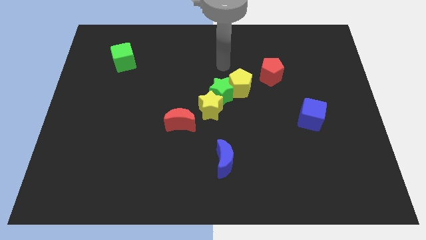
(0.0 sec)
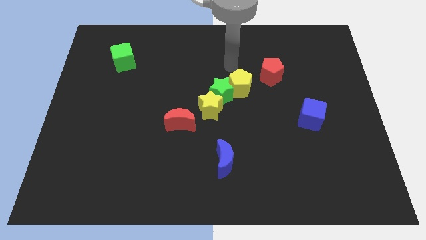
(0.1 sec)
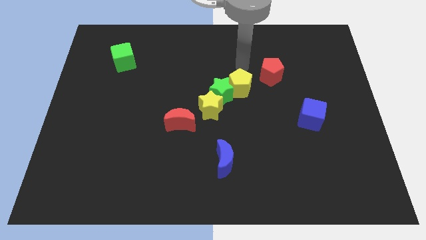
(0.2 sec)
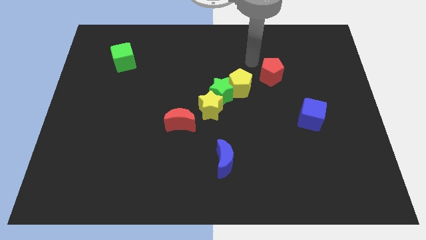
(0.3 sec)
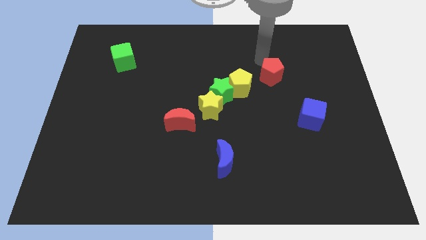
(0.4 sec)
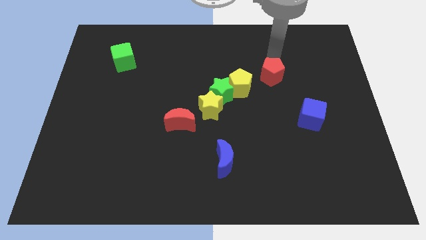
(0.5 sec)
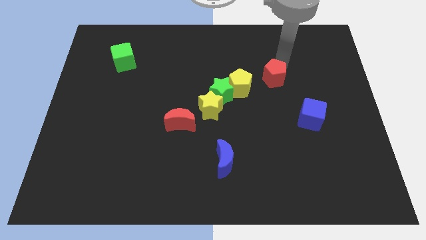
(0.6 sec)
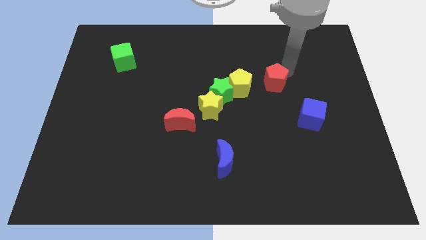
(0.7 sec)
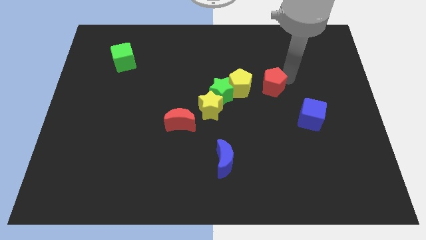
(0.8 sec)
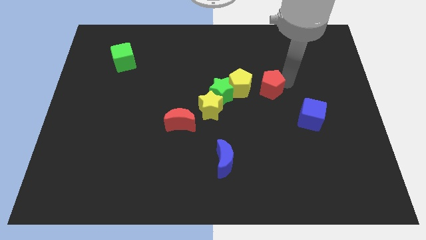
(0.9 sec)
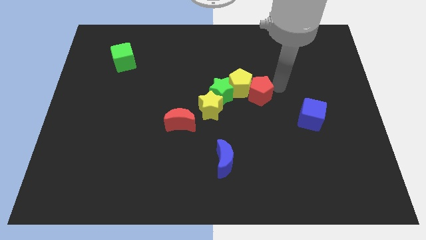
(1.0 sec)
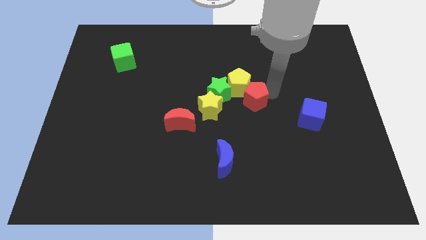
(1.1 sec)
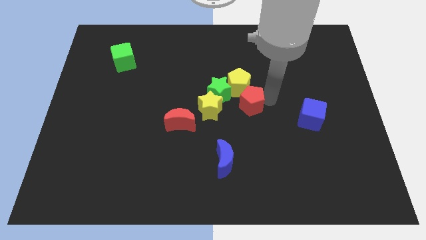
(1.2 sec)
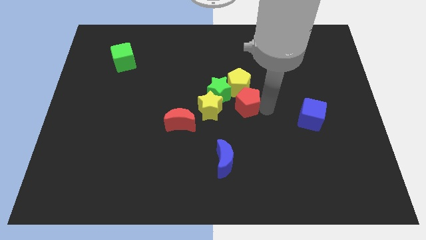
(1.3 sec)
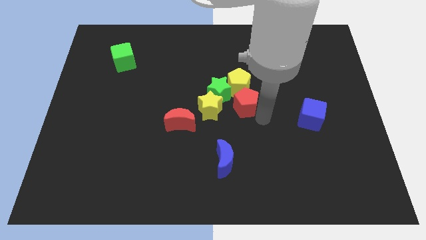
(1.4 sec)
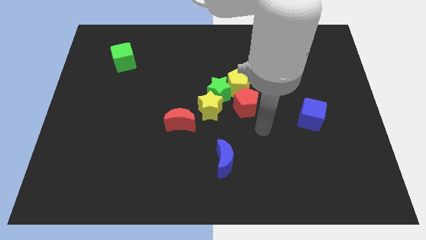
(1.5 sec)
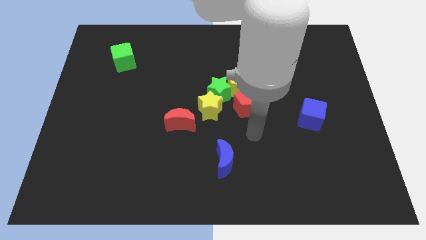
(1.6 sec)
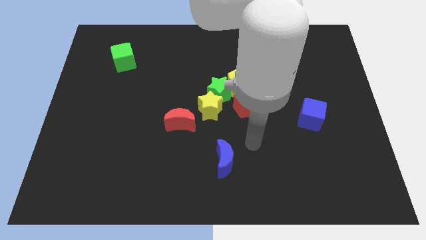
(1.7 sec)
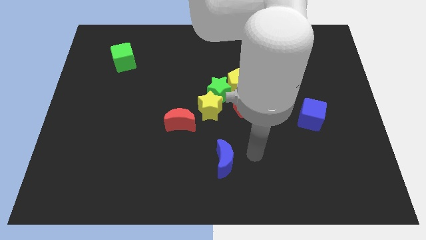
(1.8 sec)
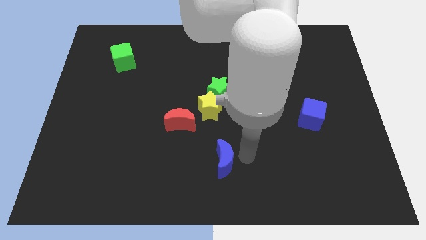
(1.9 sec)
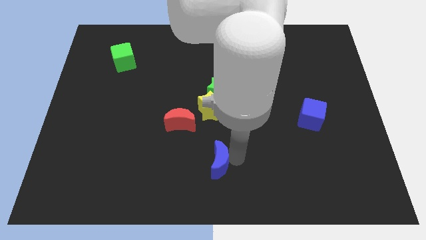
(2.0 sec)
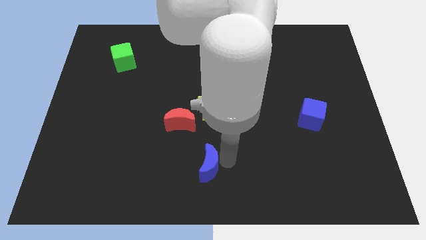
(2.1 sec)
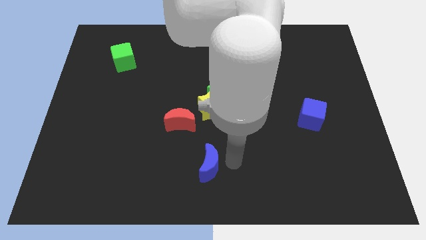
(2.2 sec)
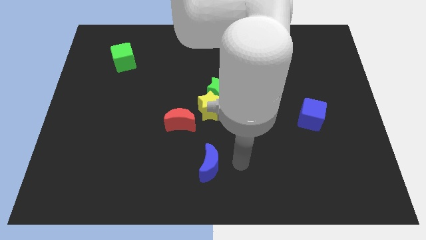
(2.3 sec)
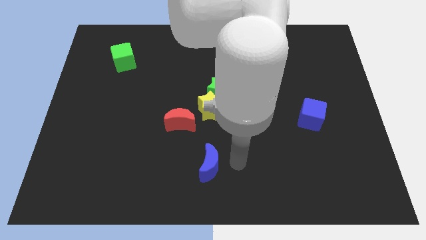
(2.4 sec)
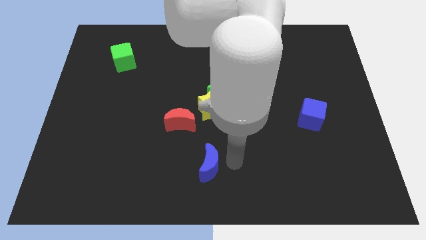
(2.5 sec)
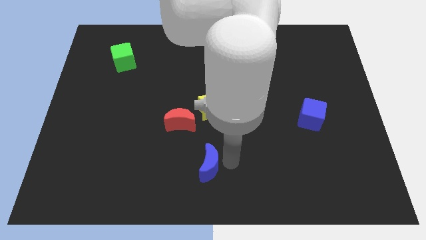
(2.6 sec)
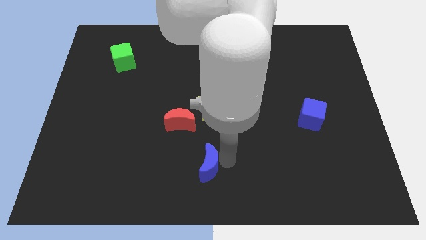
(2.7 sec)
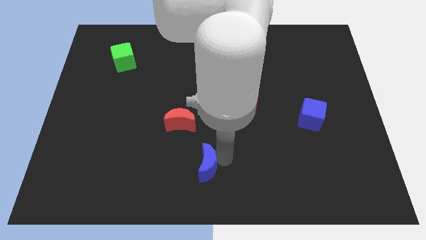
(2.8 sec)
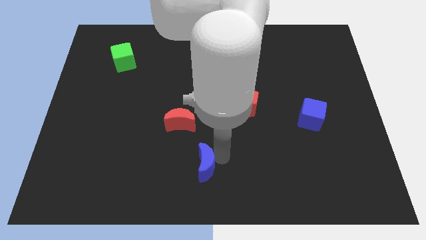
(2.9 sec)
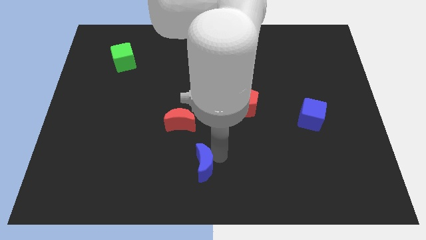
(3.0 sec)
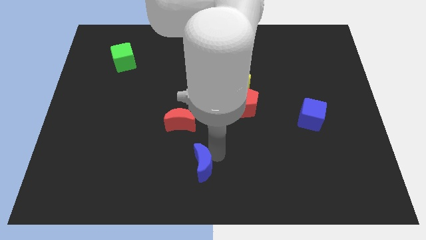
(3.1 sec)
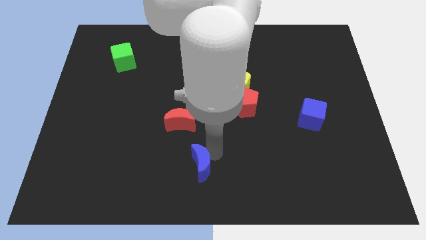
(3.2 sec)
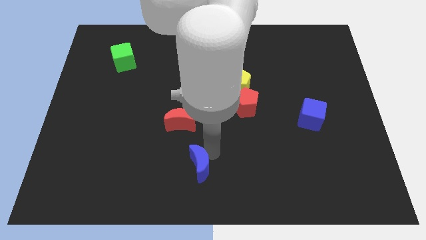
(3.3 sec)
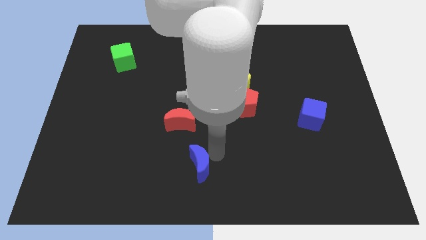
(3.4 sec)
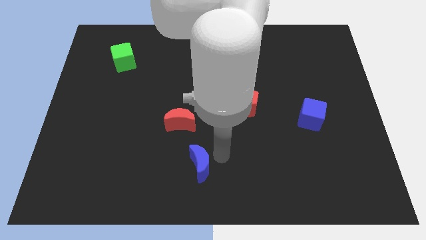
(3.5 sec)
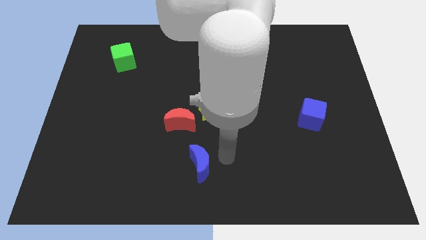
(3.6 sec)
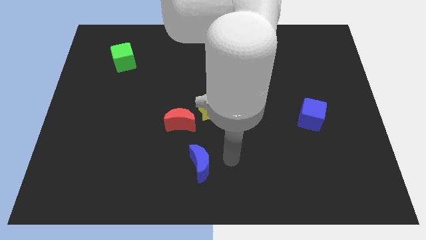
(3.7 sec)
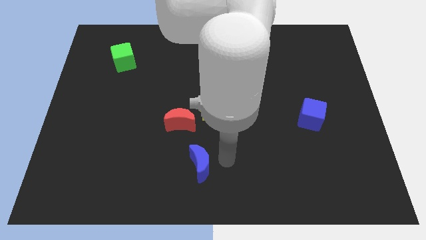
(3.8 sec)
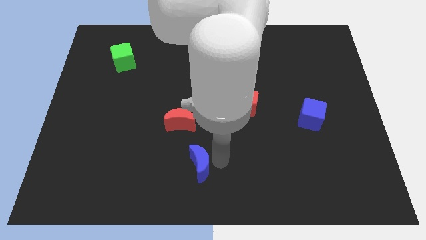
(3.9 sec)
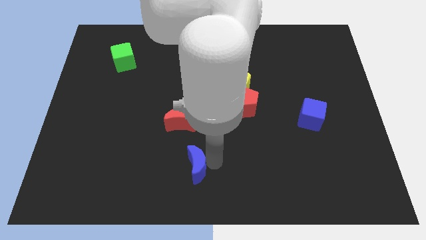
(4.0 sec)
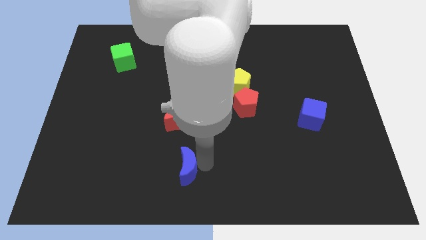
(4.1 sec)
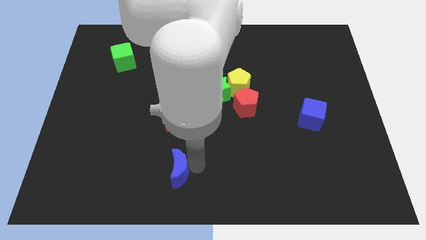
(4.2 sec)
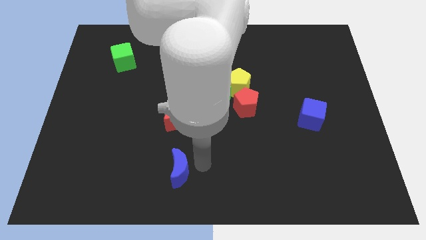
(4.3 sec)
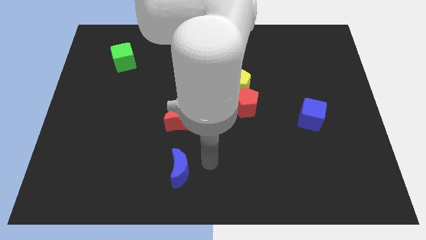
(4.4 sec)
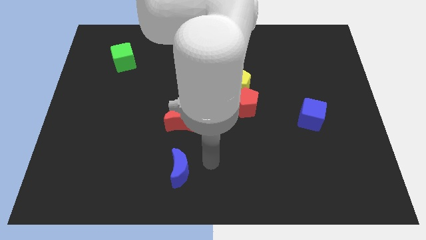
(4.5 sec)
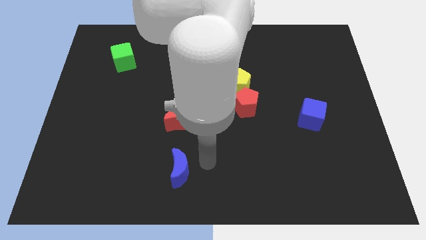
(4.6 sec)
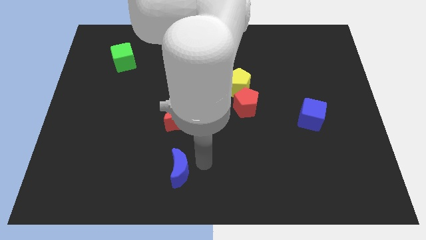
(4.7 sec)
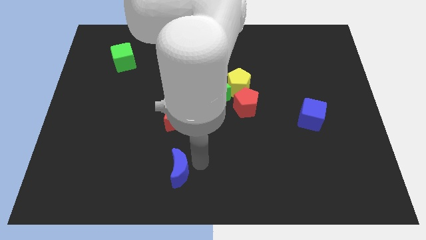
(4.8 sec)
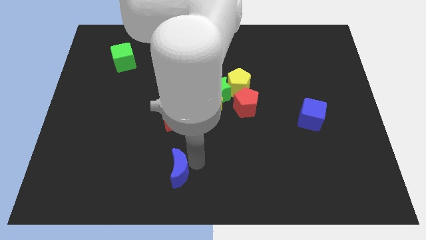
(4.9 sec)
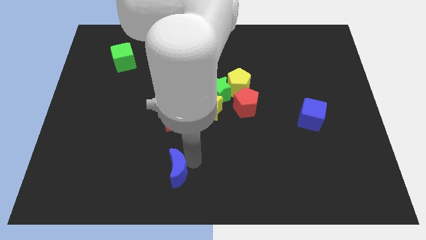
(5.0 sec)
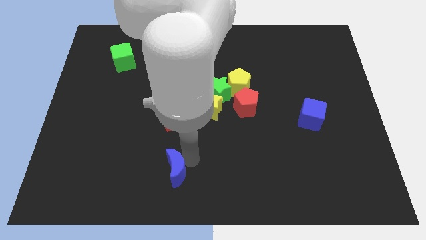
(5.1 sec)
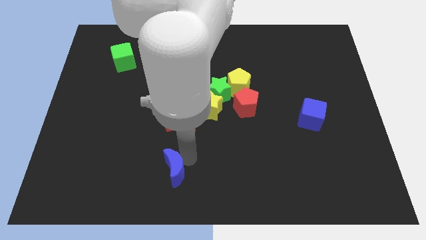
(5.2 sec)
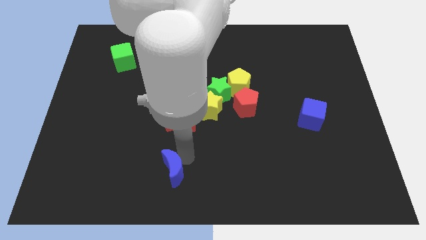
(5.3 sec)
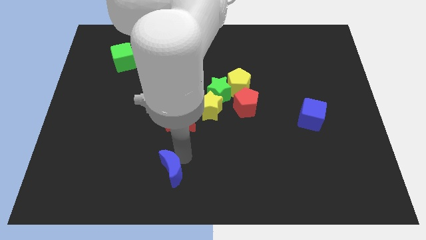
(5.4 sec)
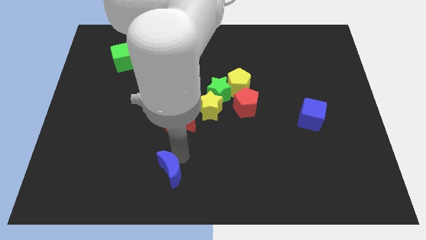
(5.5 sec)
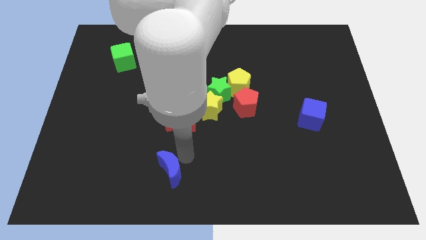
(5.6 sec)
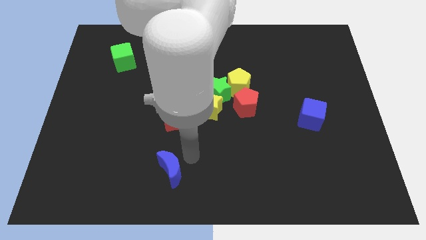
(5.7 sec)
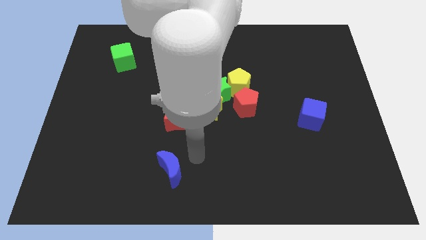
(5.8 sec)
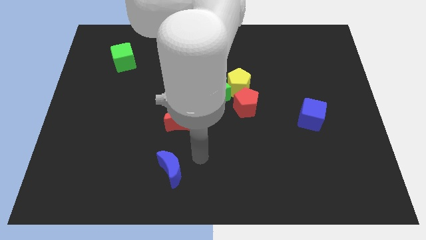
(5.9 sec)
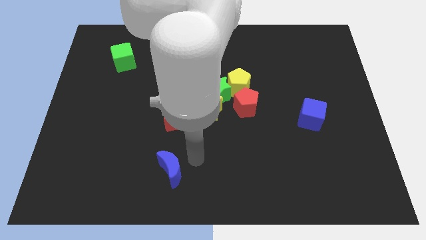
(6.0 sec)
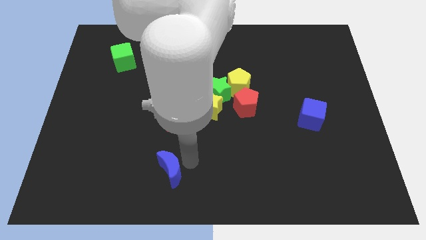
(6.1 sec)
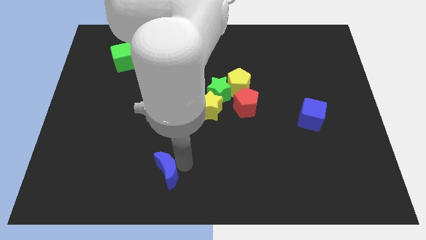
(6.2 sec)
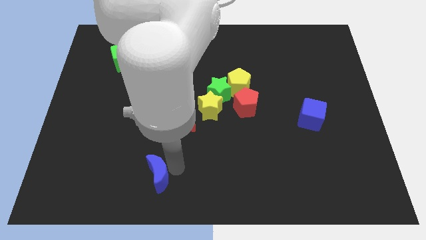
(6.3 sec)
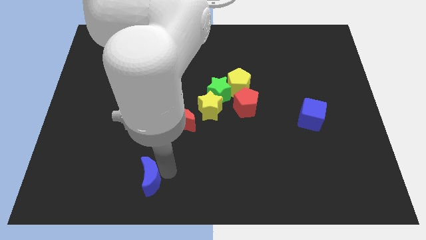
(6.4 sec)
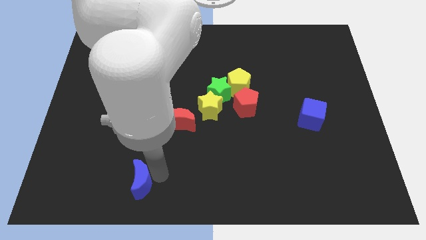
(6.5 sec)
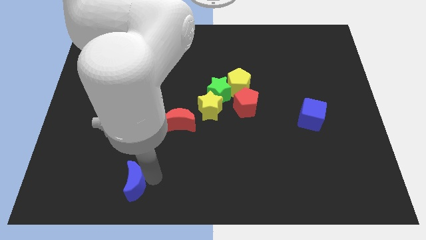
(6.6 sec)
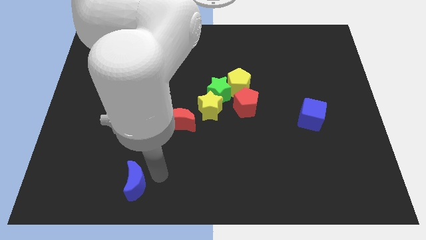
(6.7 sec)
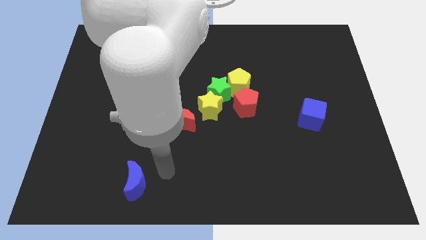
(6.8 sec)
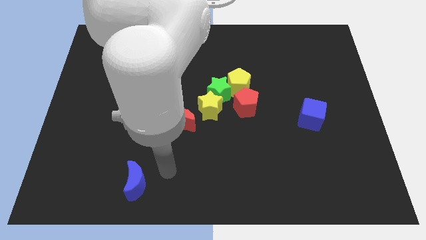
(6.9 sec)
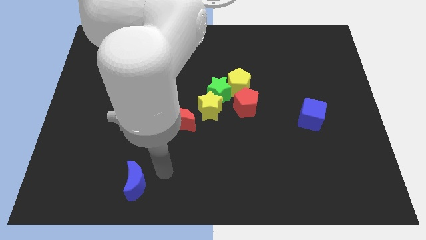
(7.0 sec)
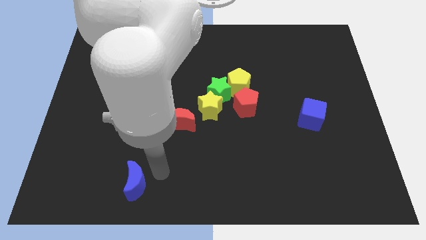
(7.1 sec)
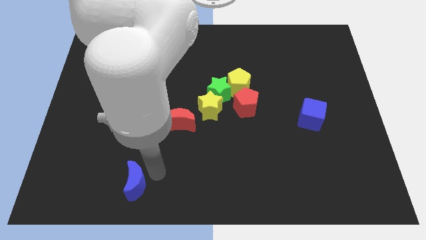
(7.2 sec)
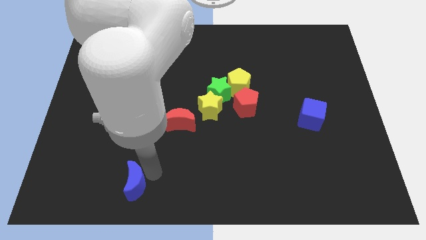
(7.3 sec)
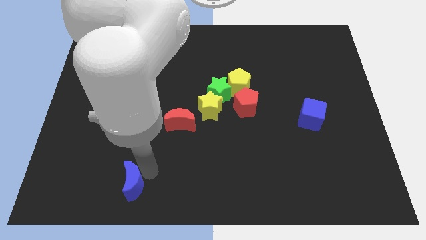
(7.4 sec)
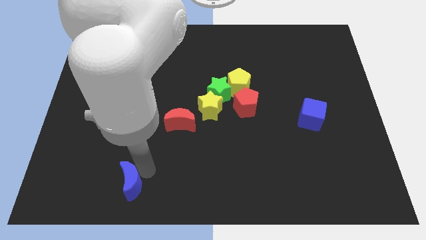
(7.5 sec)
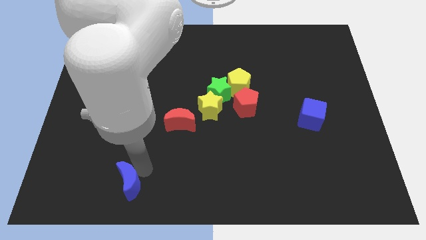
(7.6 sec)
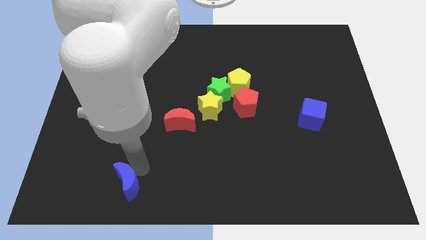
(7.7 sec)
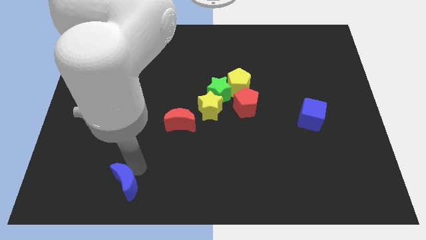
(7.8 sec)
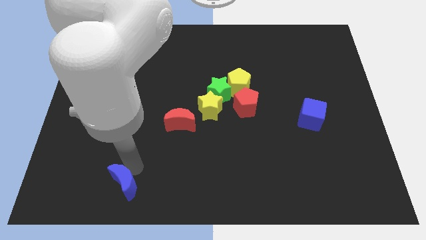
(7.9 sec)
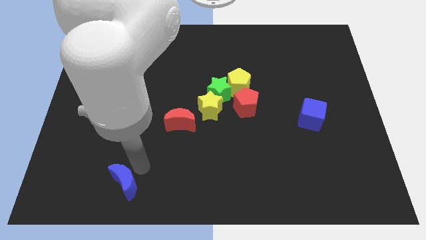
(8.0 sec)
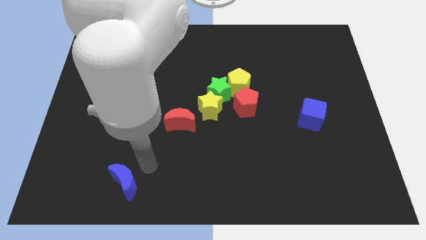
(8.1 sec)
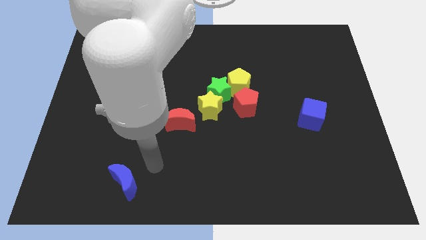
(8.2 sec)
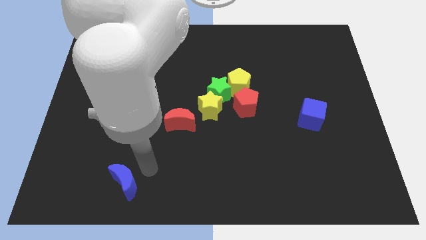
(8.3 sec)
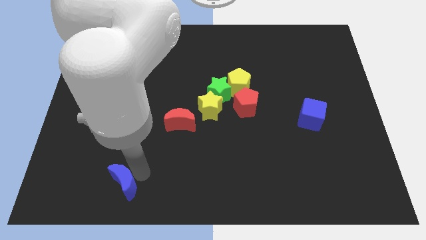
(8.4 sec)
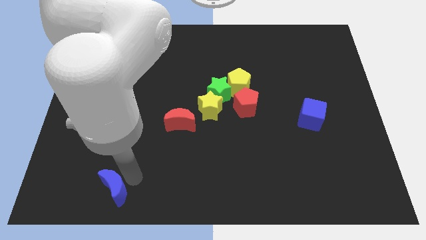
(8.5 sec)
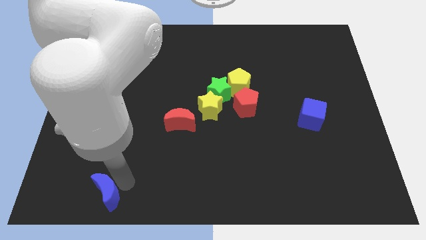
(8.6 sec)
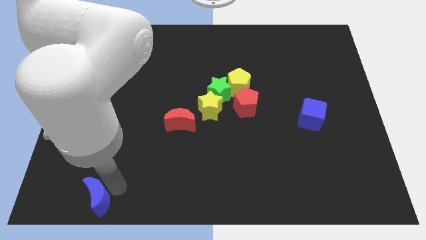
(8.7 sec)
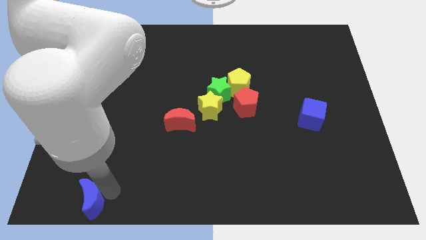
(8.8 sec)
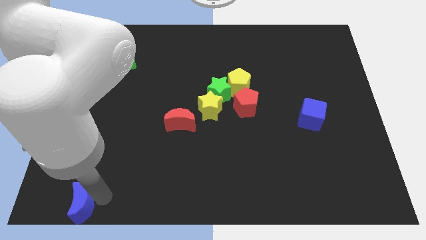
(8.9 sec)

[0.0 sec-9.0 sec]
move the blue moon to the bottom left of the board
